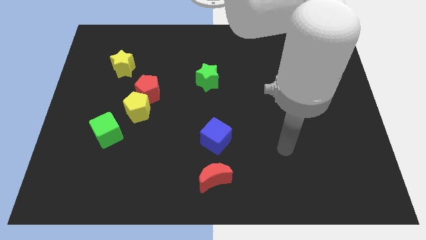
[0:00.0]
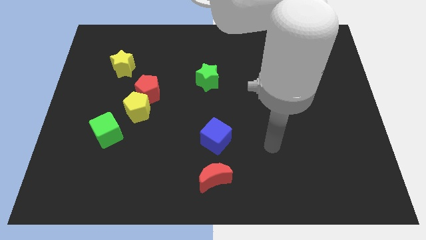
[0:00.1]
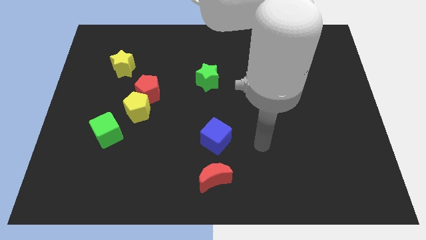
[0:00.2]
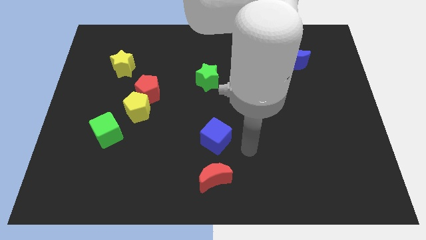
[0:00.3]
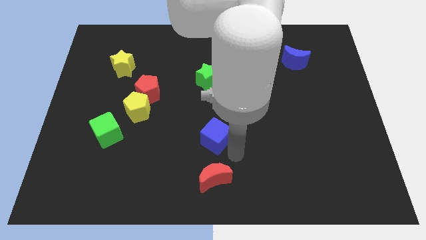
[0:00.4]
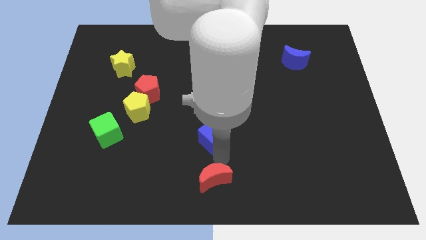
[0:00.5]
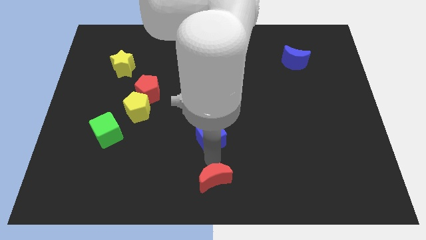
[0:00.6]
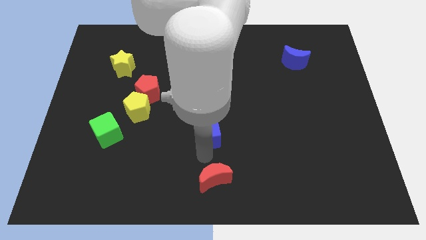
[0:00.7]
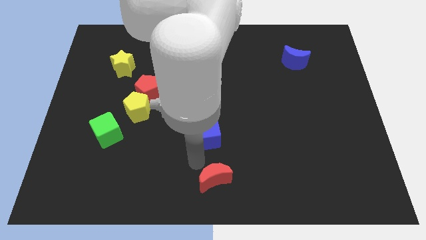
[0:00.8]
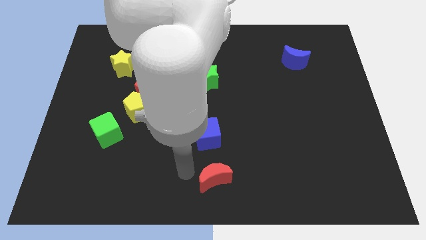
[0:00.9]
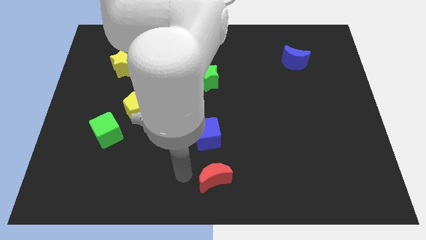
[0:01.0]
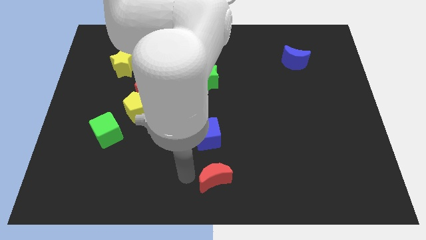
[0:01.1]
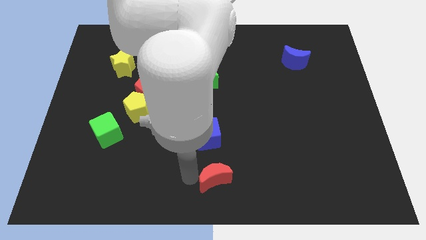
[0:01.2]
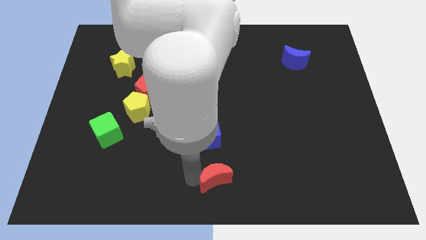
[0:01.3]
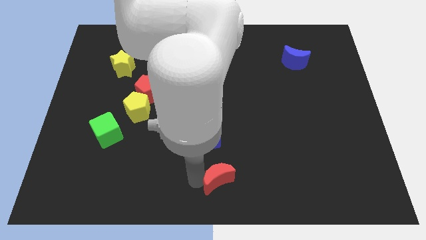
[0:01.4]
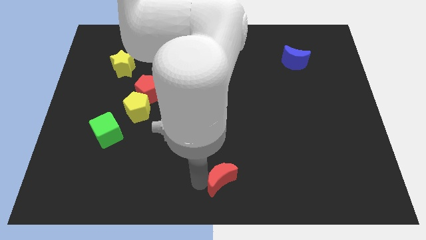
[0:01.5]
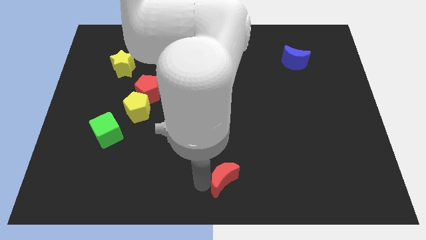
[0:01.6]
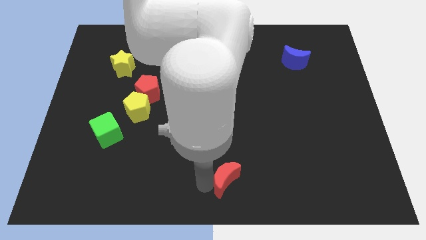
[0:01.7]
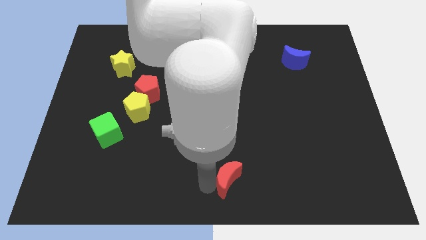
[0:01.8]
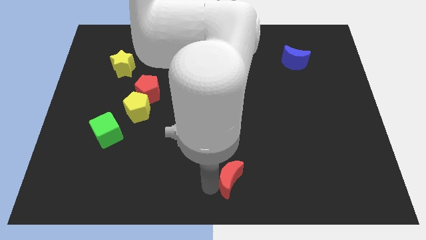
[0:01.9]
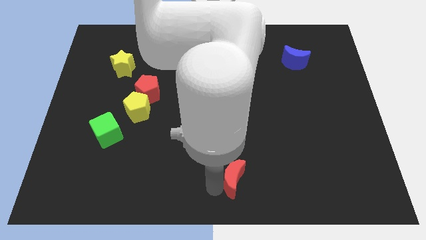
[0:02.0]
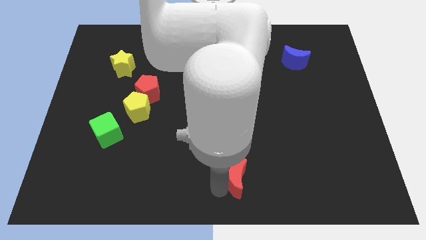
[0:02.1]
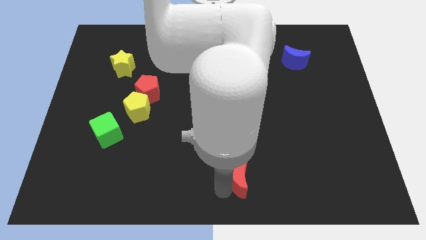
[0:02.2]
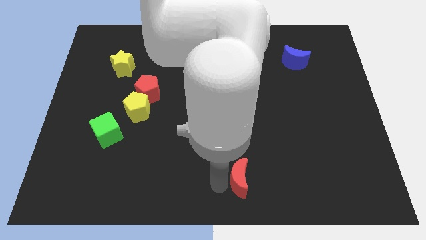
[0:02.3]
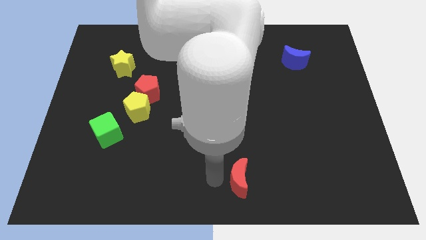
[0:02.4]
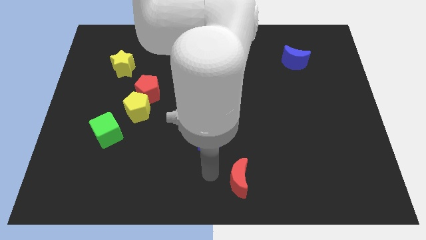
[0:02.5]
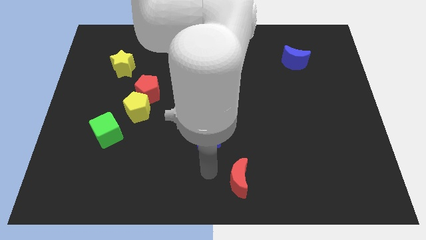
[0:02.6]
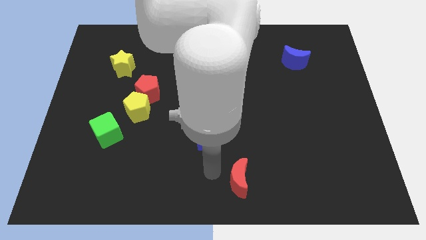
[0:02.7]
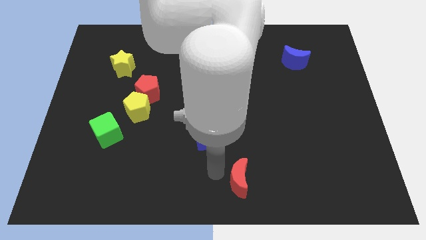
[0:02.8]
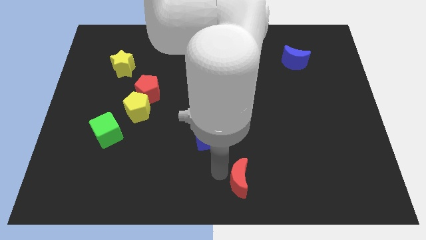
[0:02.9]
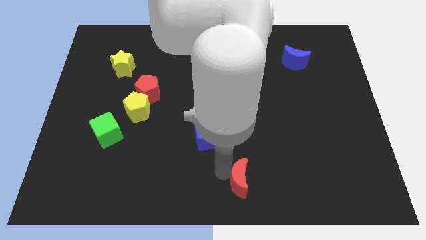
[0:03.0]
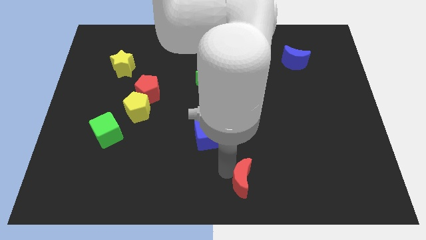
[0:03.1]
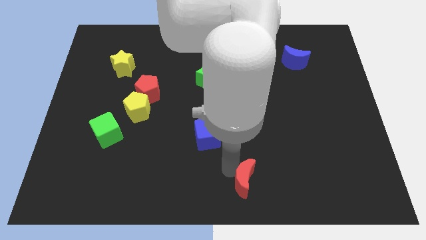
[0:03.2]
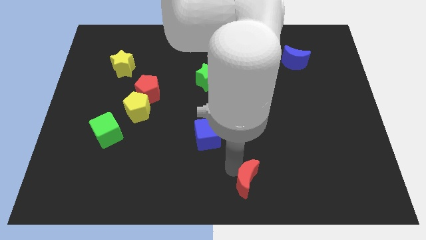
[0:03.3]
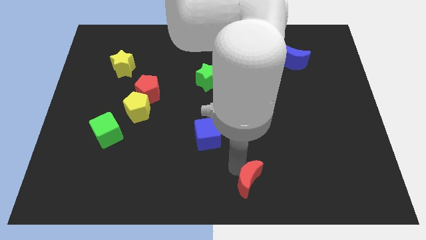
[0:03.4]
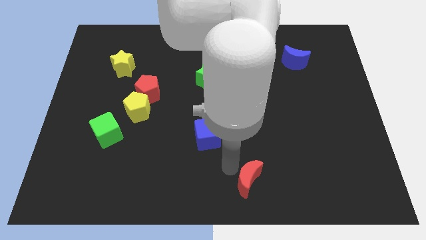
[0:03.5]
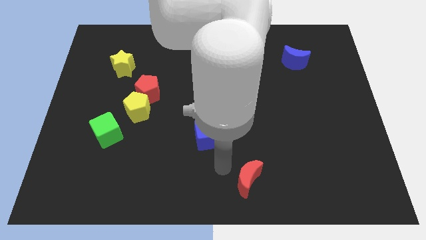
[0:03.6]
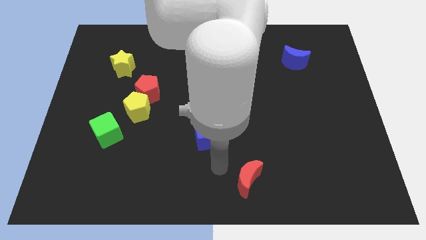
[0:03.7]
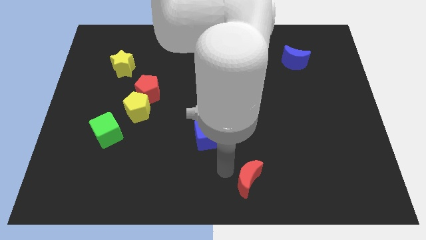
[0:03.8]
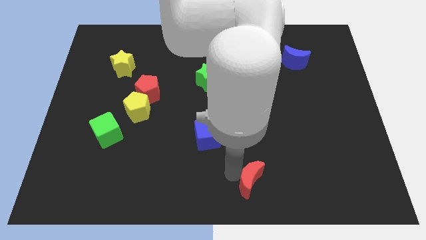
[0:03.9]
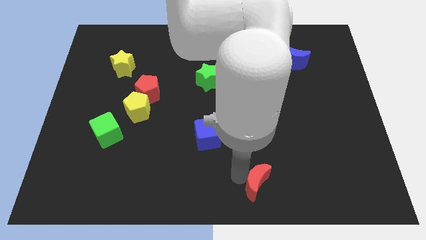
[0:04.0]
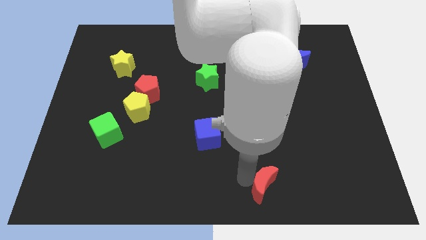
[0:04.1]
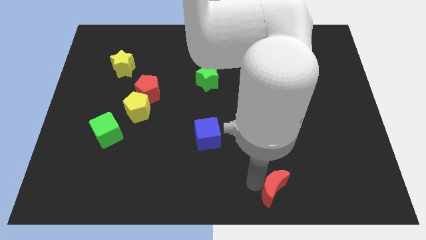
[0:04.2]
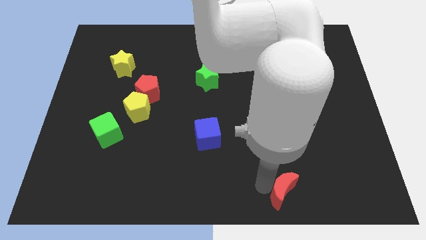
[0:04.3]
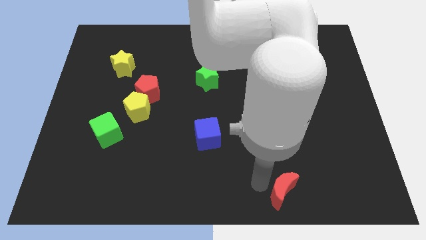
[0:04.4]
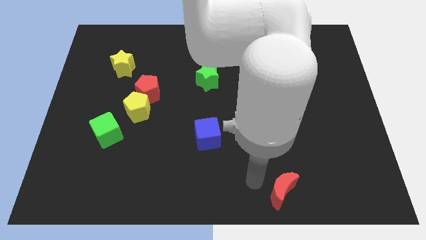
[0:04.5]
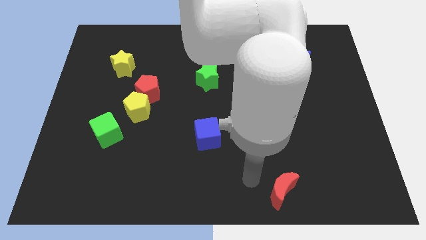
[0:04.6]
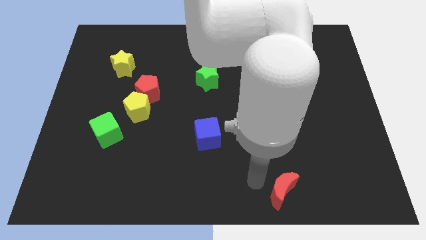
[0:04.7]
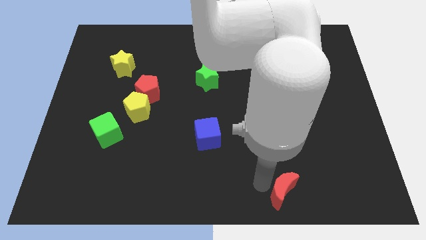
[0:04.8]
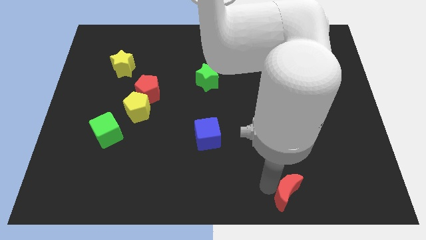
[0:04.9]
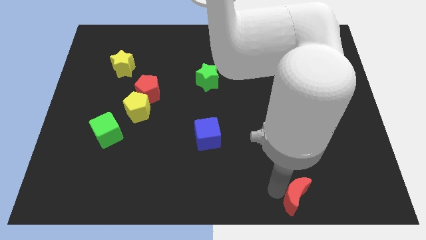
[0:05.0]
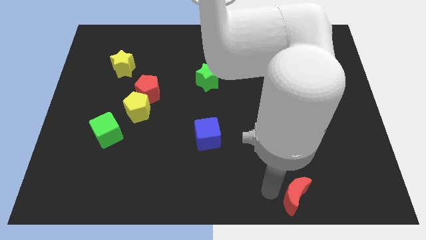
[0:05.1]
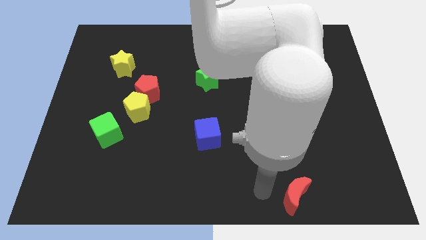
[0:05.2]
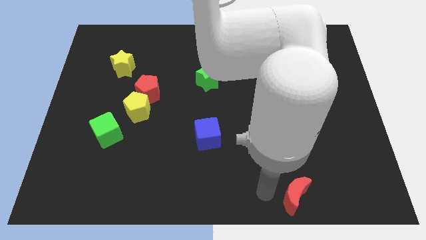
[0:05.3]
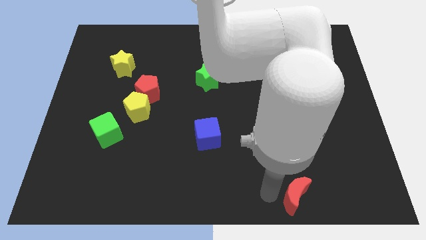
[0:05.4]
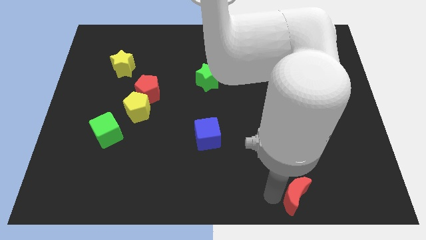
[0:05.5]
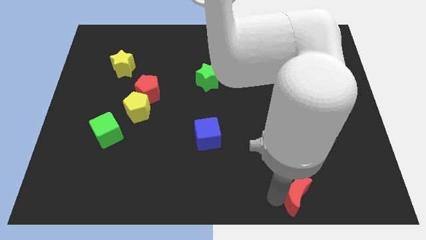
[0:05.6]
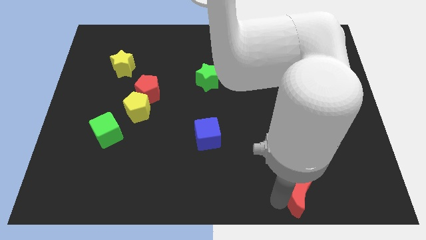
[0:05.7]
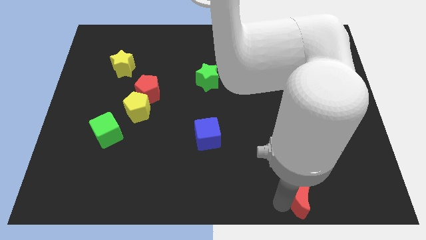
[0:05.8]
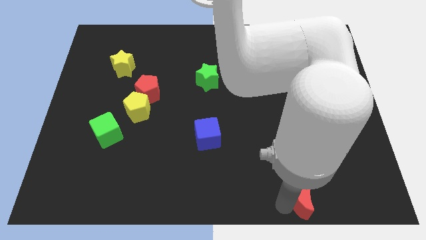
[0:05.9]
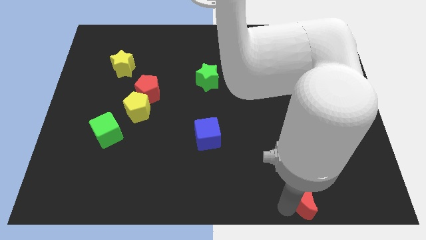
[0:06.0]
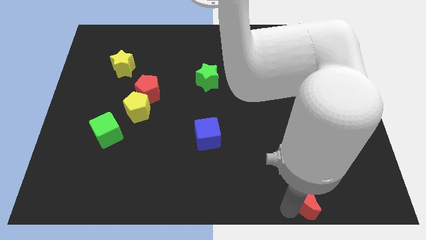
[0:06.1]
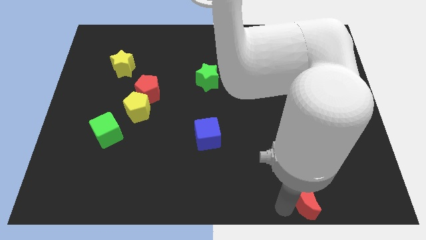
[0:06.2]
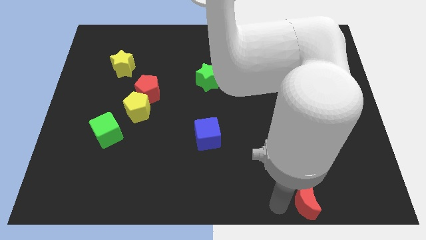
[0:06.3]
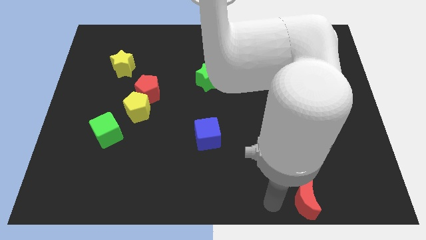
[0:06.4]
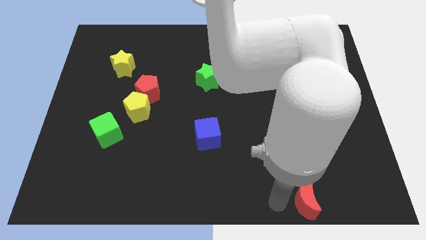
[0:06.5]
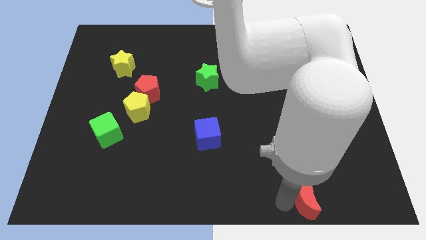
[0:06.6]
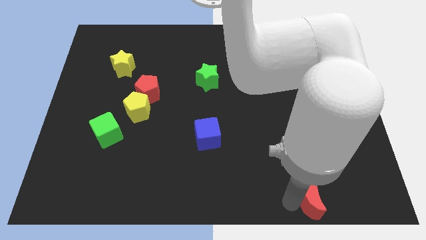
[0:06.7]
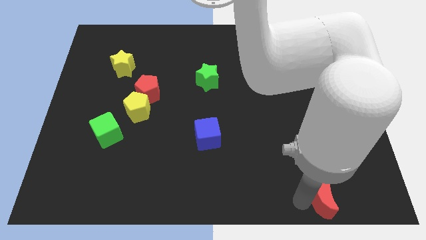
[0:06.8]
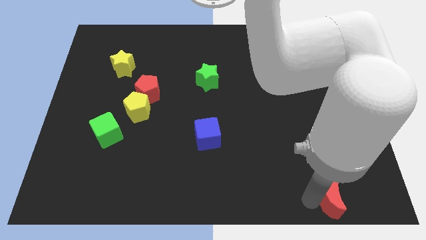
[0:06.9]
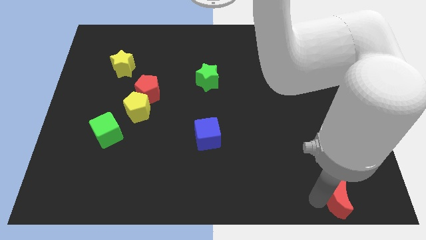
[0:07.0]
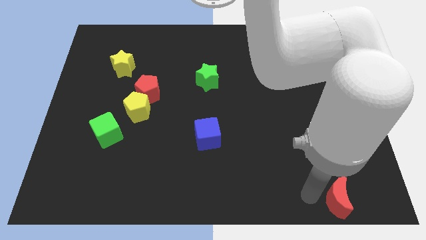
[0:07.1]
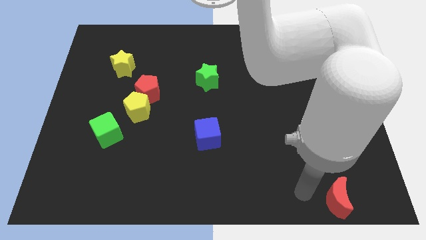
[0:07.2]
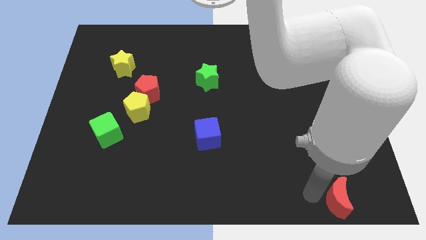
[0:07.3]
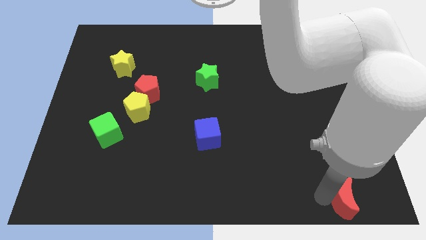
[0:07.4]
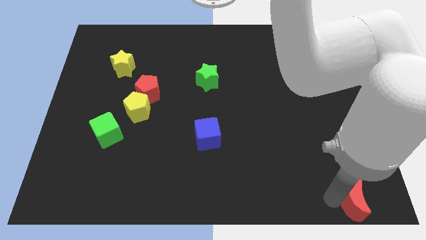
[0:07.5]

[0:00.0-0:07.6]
put the red moon to the lower right corner
